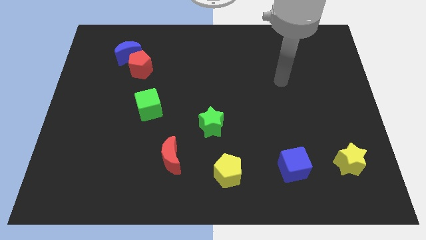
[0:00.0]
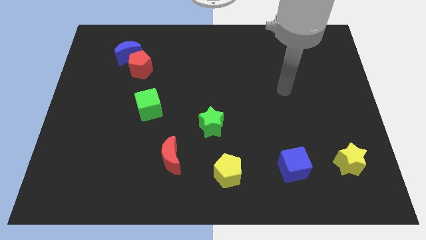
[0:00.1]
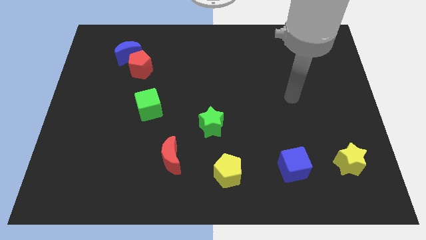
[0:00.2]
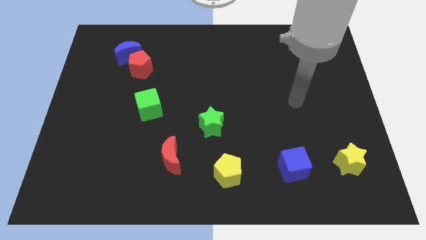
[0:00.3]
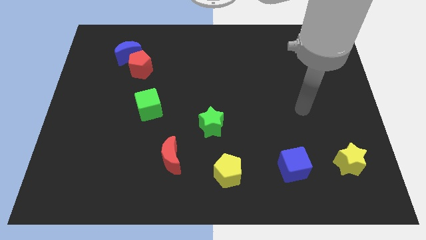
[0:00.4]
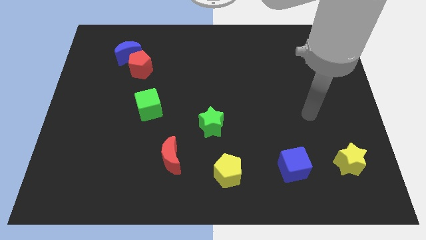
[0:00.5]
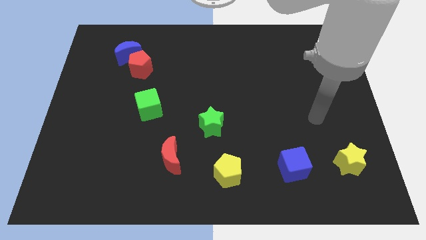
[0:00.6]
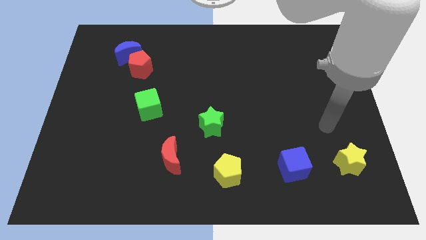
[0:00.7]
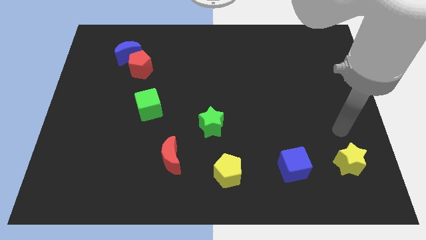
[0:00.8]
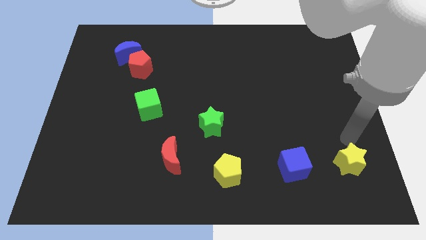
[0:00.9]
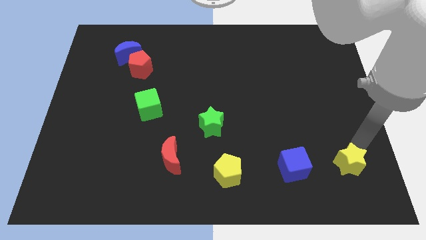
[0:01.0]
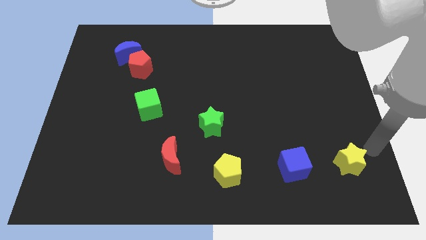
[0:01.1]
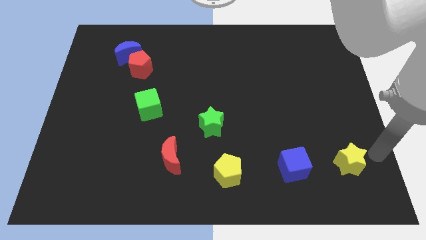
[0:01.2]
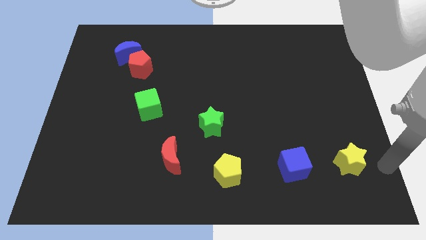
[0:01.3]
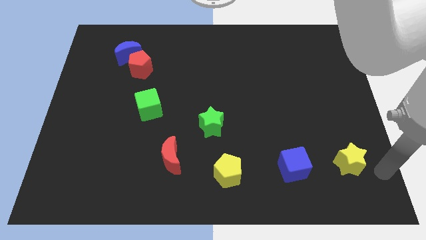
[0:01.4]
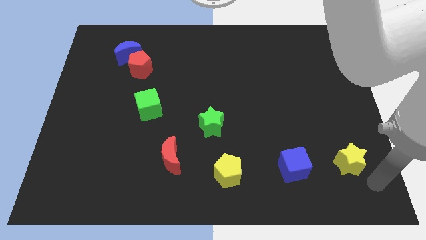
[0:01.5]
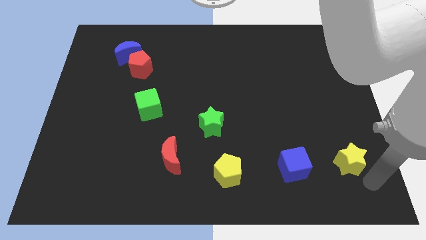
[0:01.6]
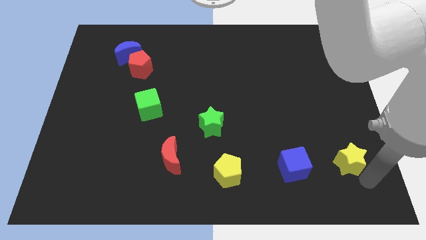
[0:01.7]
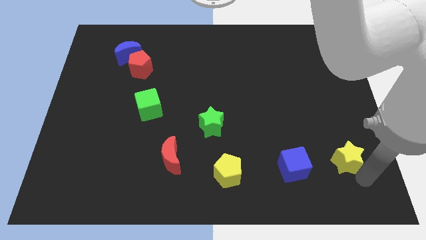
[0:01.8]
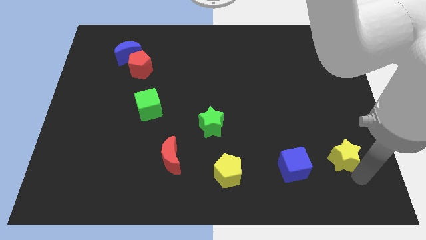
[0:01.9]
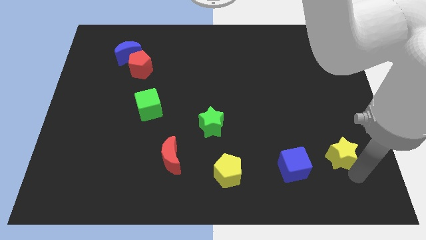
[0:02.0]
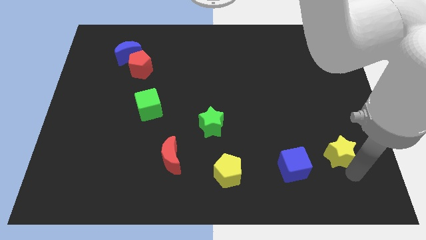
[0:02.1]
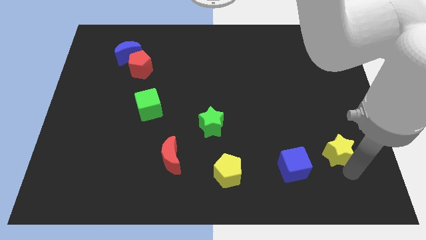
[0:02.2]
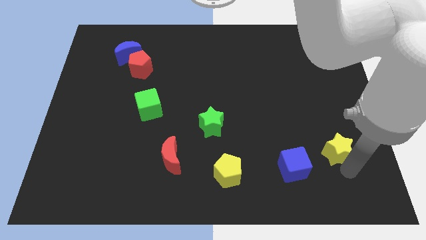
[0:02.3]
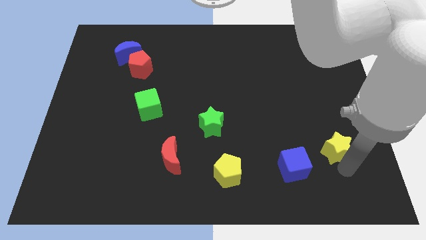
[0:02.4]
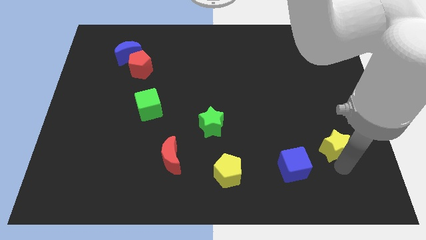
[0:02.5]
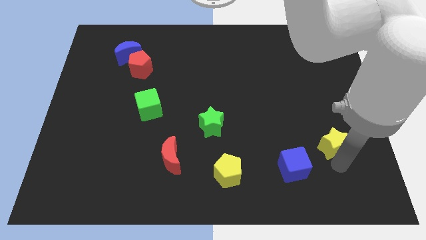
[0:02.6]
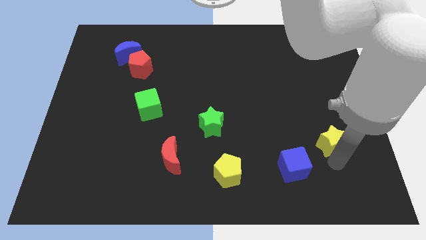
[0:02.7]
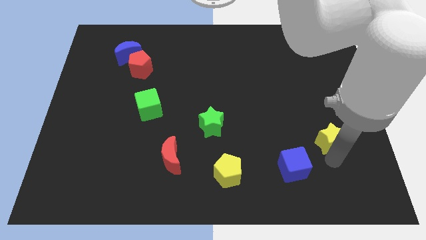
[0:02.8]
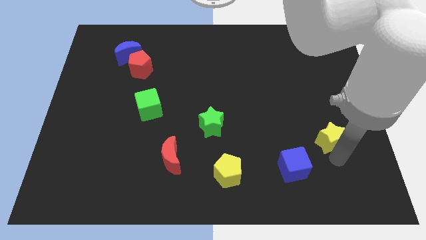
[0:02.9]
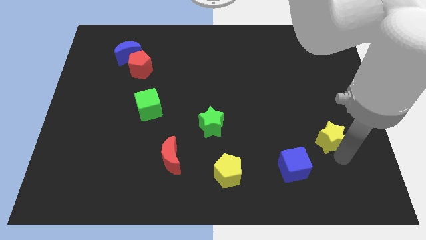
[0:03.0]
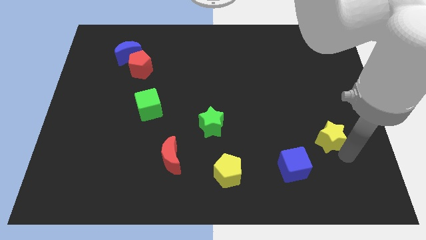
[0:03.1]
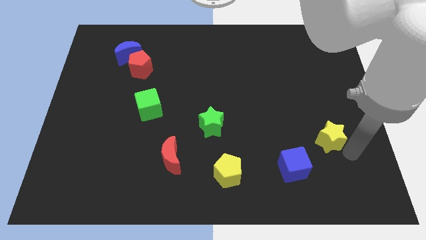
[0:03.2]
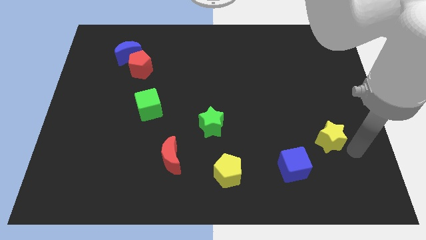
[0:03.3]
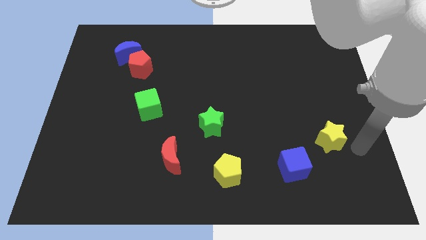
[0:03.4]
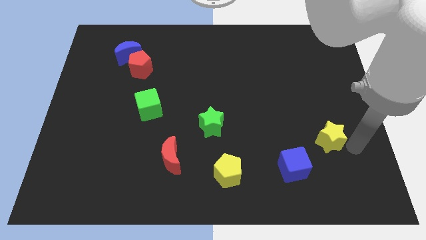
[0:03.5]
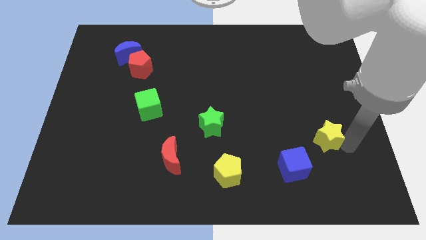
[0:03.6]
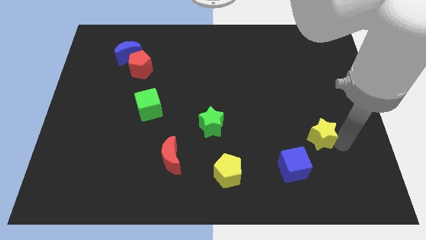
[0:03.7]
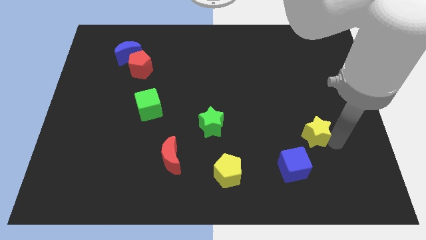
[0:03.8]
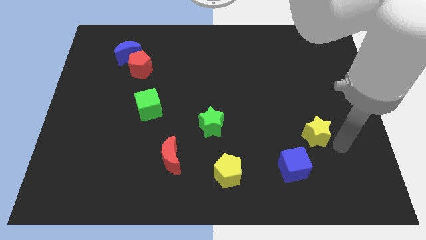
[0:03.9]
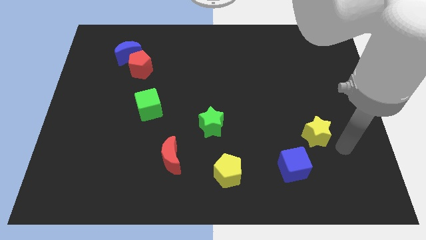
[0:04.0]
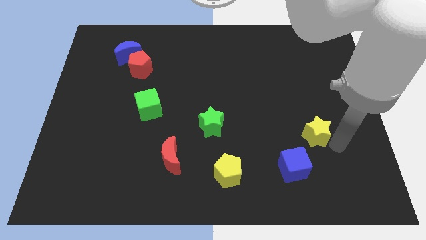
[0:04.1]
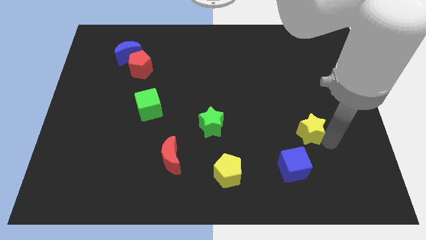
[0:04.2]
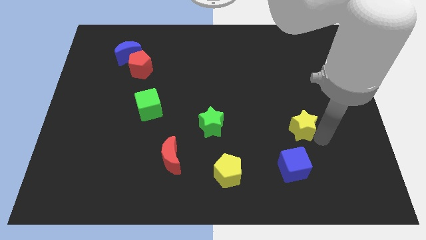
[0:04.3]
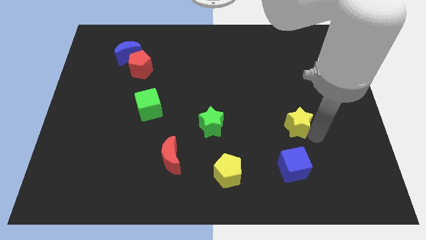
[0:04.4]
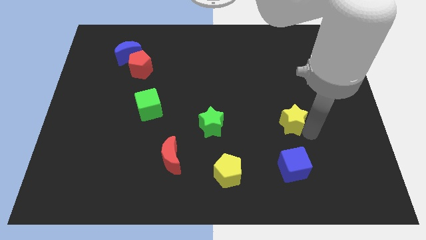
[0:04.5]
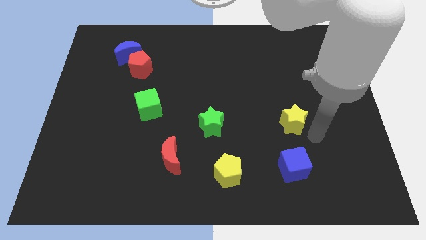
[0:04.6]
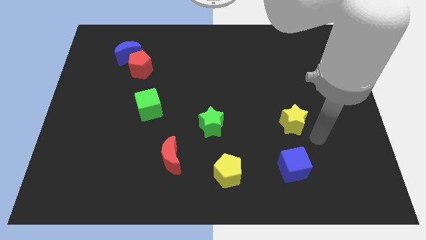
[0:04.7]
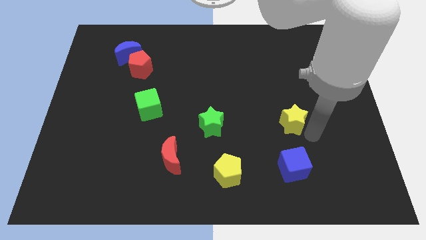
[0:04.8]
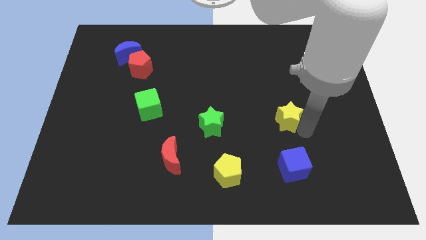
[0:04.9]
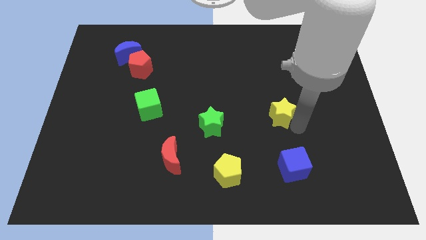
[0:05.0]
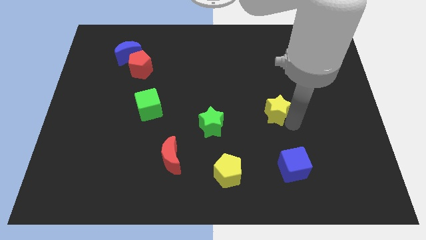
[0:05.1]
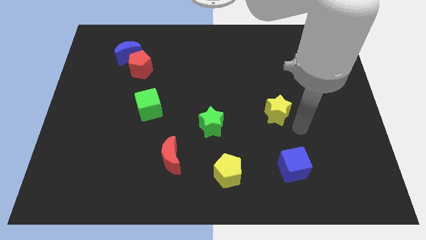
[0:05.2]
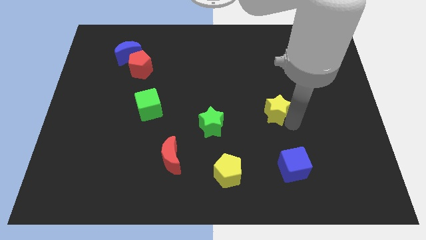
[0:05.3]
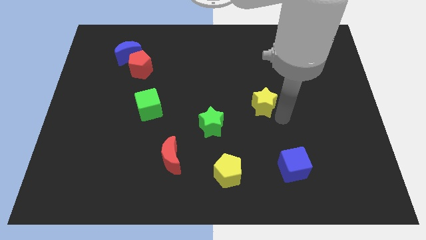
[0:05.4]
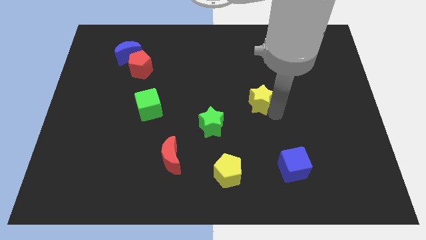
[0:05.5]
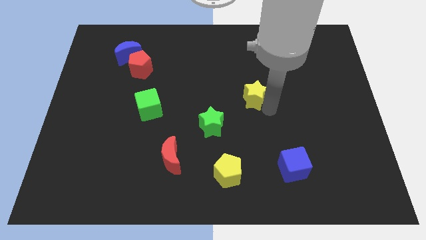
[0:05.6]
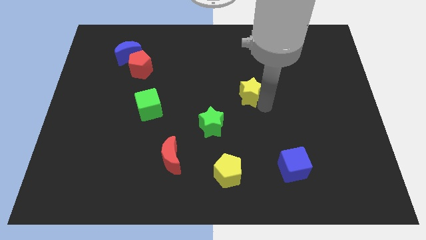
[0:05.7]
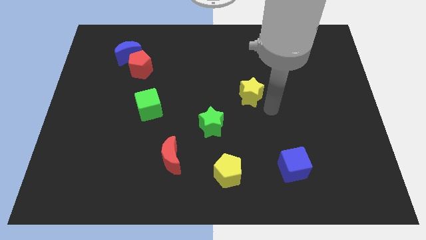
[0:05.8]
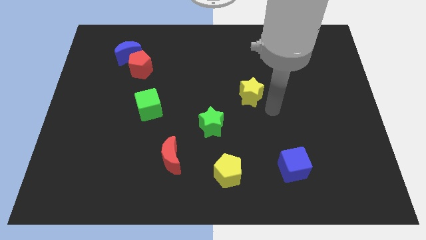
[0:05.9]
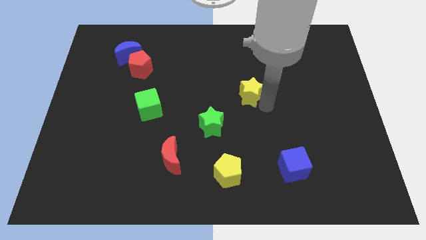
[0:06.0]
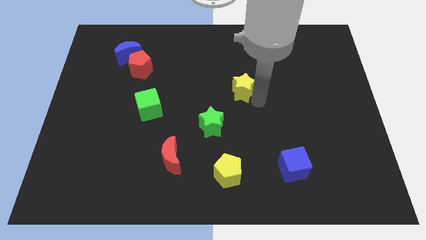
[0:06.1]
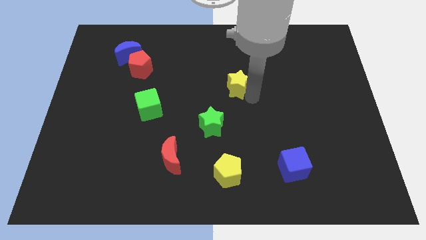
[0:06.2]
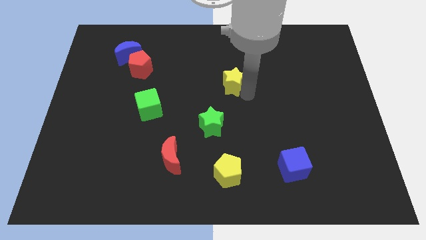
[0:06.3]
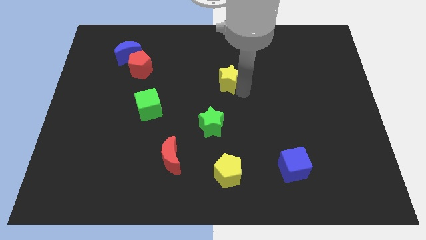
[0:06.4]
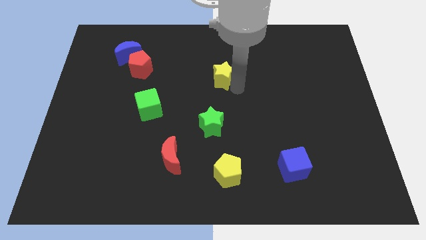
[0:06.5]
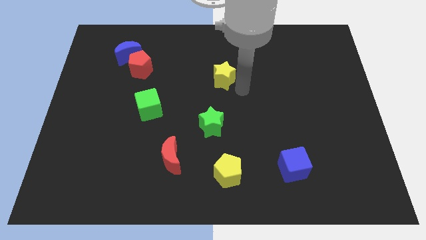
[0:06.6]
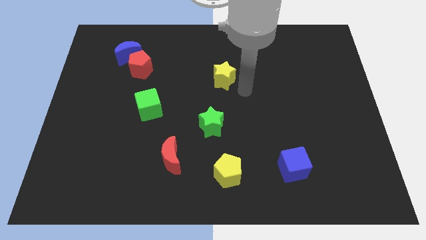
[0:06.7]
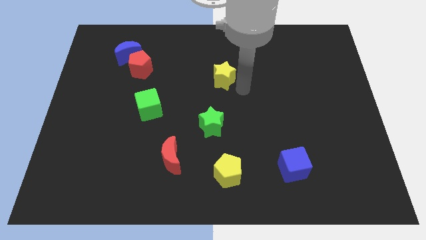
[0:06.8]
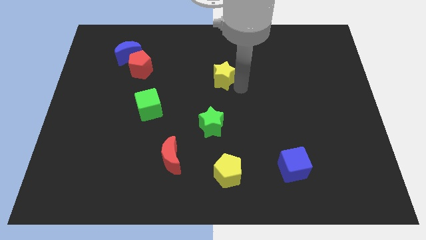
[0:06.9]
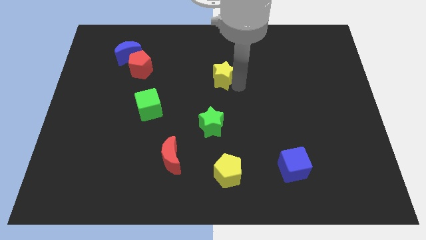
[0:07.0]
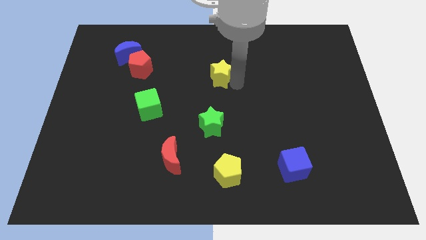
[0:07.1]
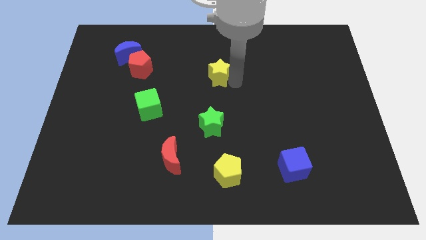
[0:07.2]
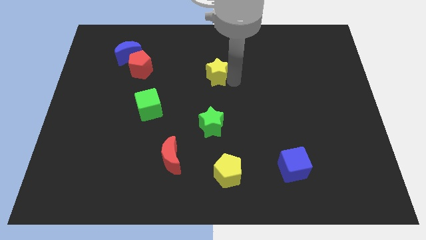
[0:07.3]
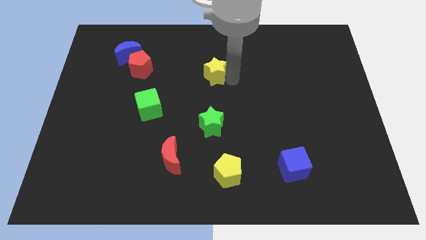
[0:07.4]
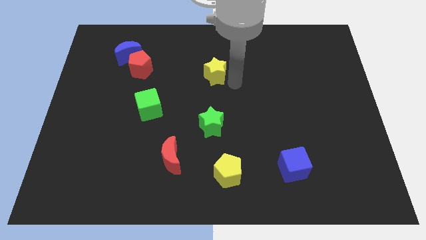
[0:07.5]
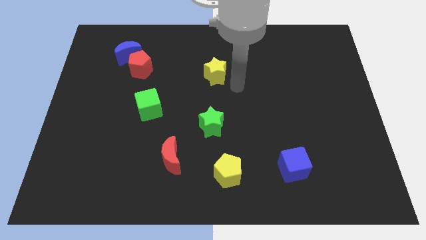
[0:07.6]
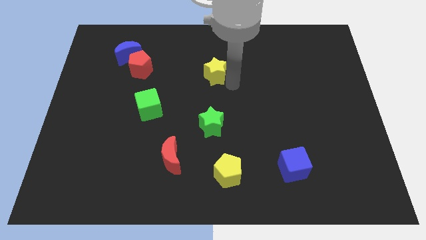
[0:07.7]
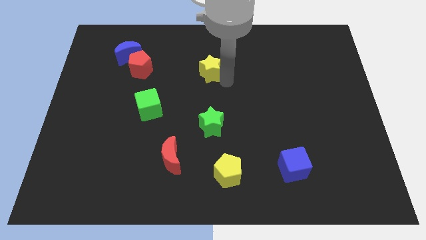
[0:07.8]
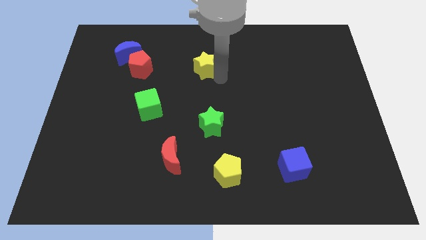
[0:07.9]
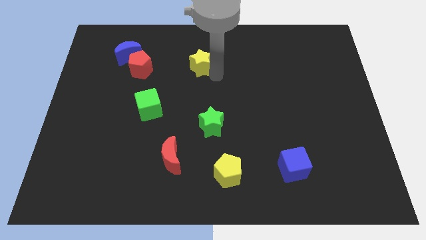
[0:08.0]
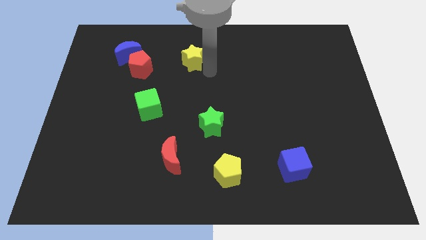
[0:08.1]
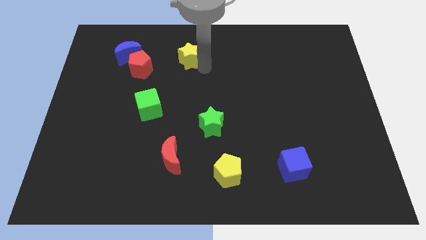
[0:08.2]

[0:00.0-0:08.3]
move the yellow star just right of the blue moon
